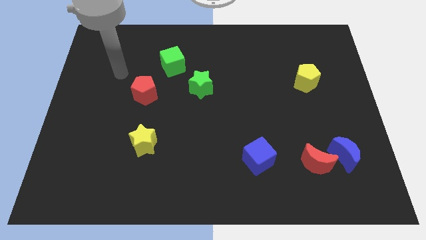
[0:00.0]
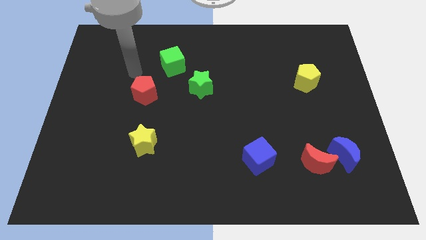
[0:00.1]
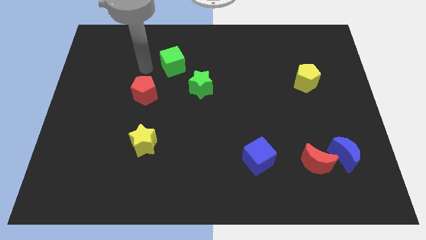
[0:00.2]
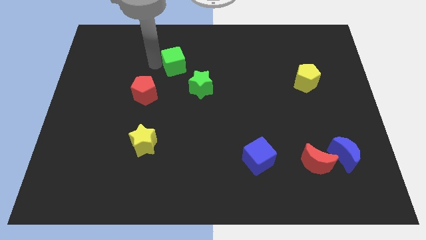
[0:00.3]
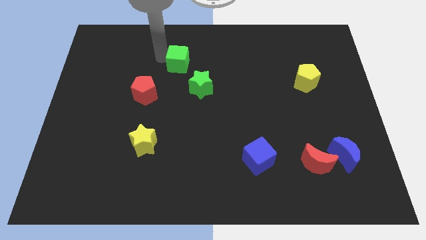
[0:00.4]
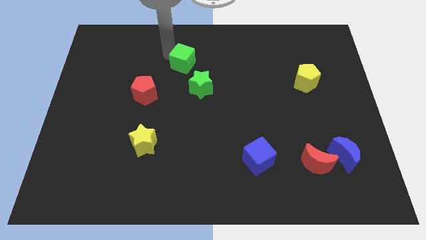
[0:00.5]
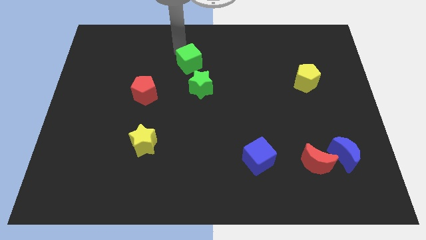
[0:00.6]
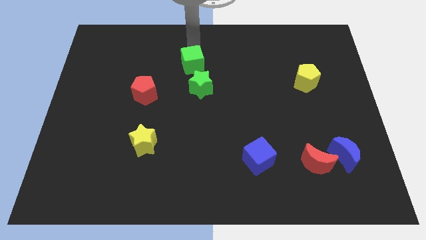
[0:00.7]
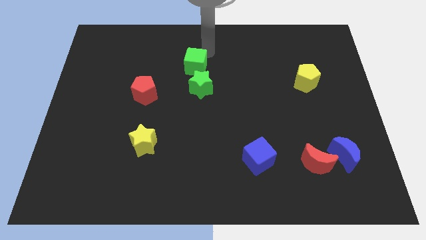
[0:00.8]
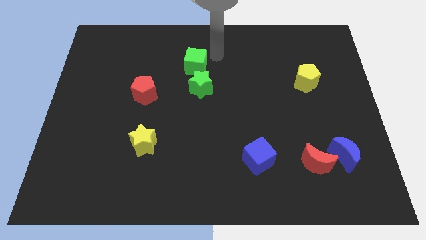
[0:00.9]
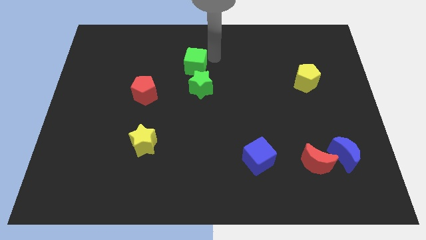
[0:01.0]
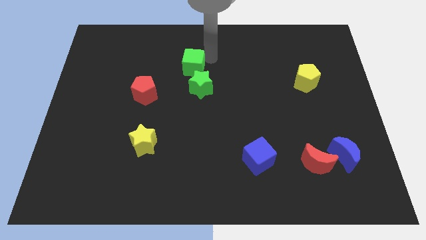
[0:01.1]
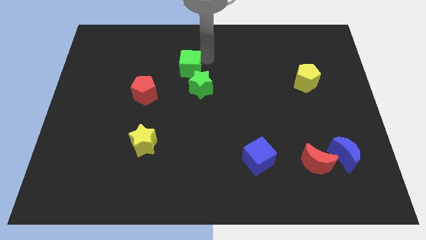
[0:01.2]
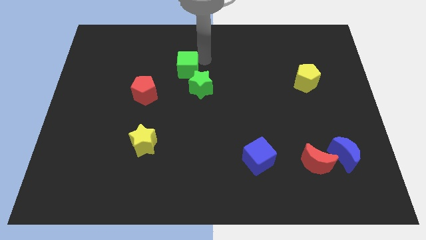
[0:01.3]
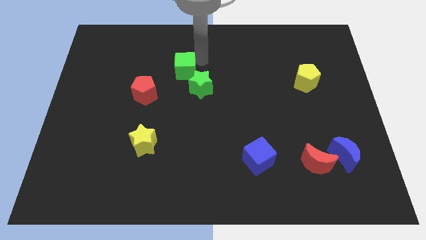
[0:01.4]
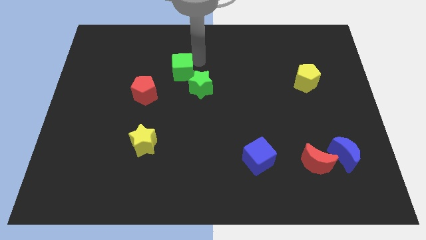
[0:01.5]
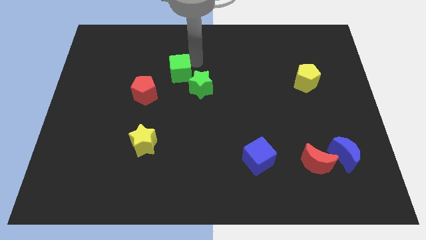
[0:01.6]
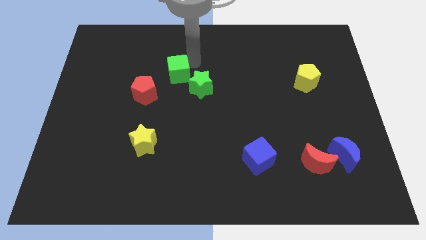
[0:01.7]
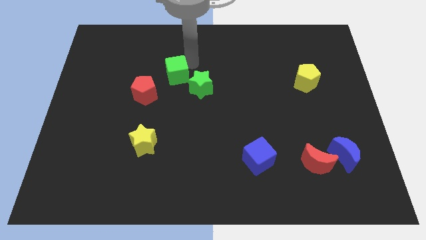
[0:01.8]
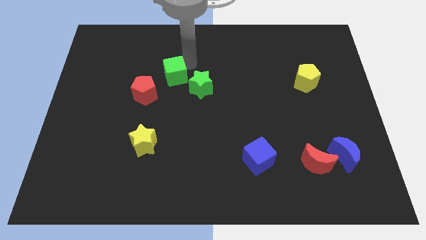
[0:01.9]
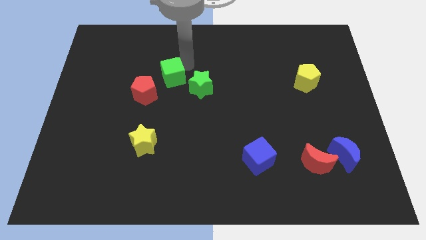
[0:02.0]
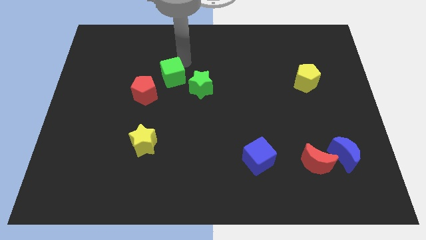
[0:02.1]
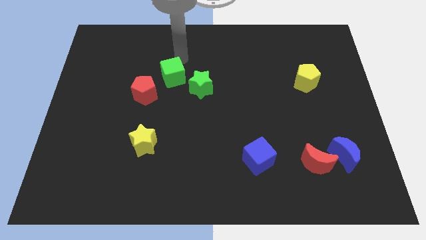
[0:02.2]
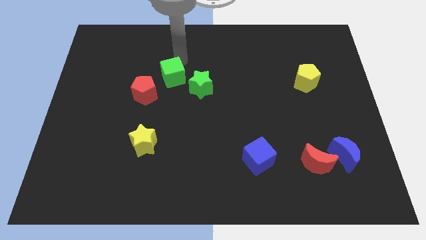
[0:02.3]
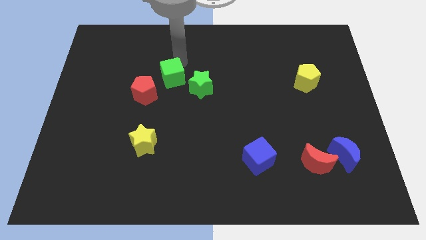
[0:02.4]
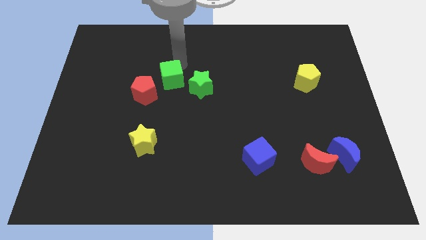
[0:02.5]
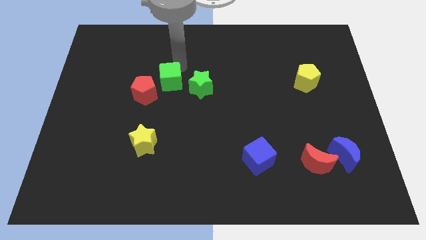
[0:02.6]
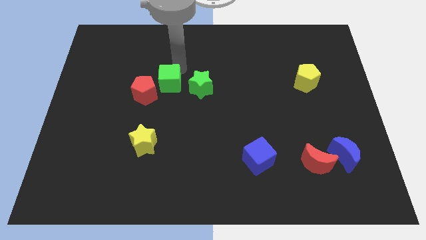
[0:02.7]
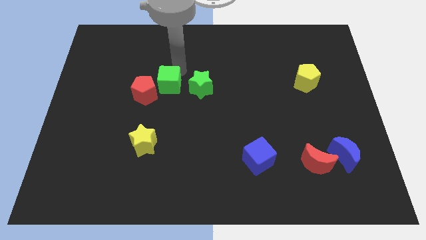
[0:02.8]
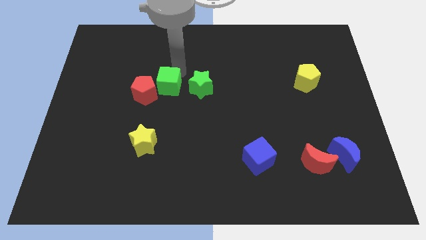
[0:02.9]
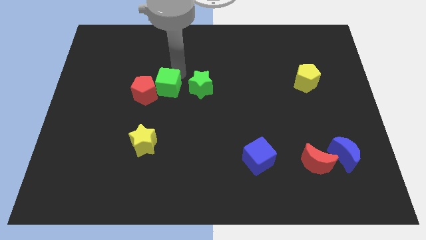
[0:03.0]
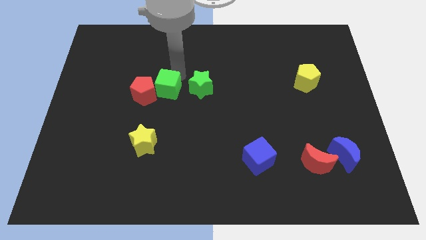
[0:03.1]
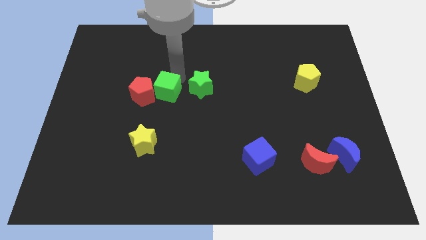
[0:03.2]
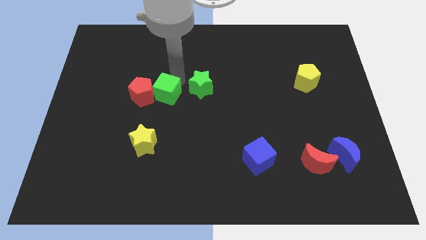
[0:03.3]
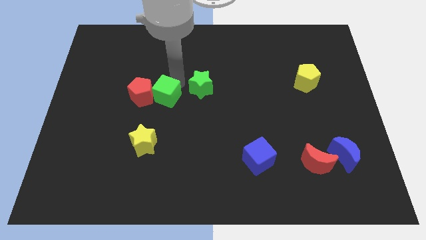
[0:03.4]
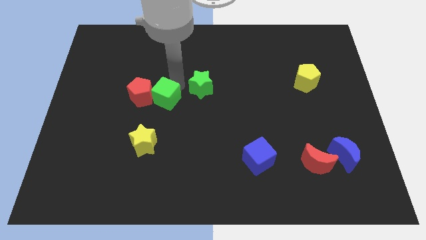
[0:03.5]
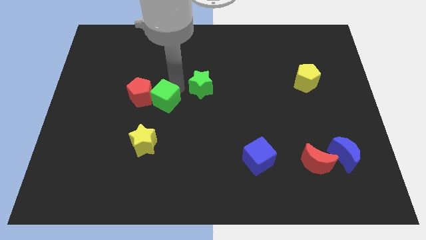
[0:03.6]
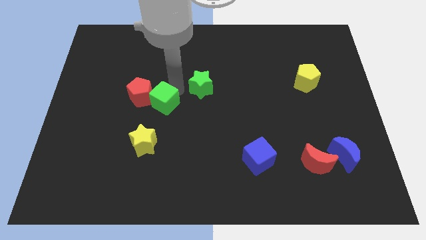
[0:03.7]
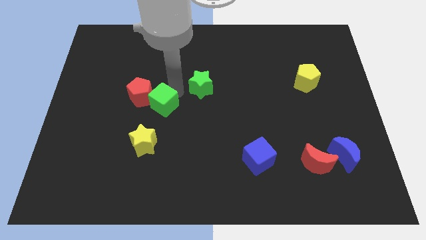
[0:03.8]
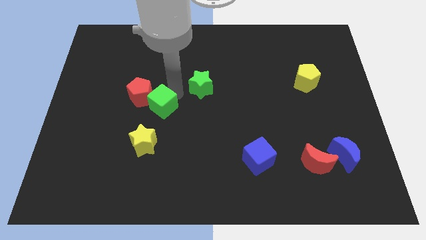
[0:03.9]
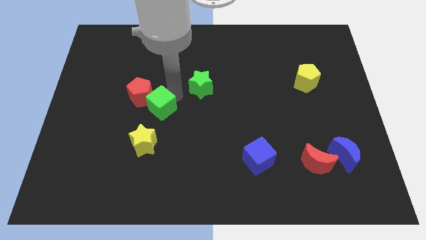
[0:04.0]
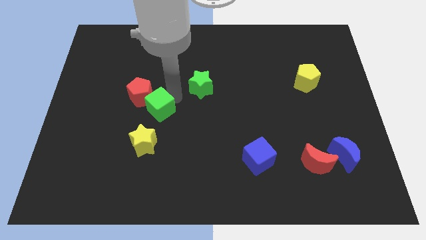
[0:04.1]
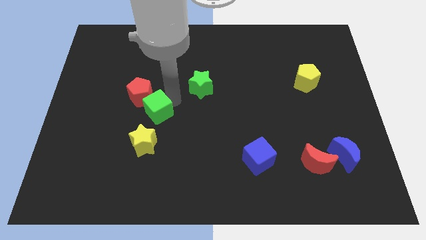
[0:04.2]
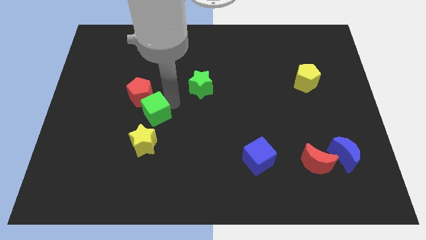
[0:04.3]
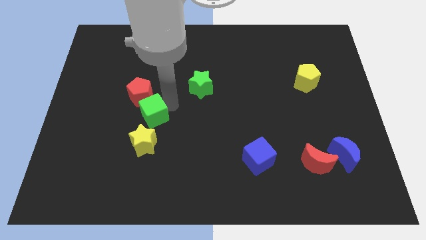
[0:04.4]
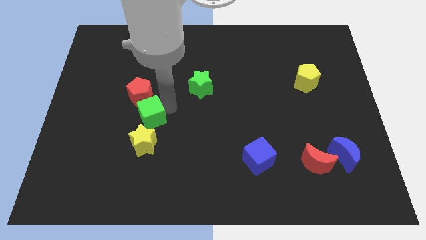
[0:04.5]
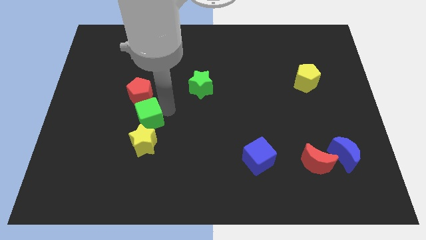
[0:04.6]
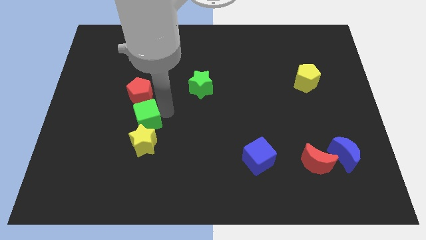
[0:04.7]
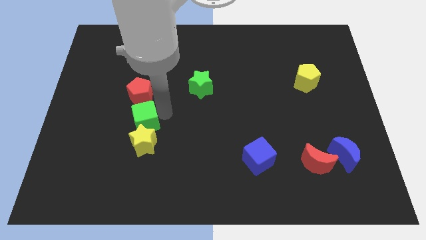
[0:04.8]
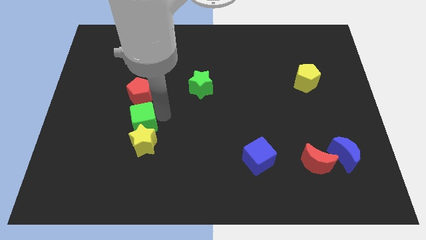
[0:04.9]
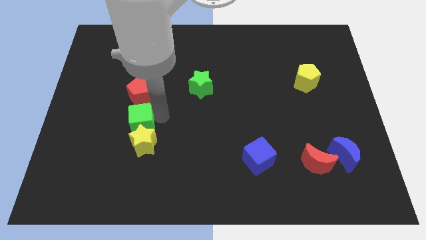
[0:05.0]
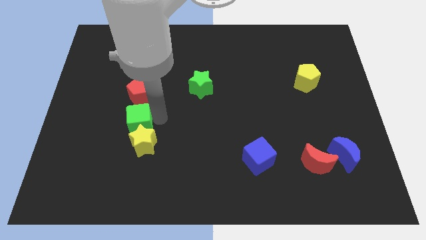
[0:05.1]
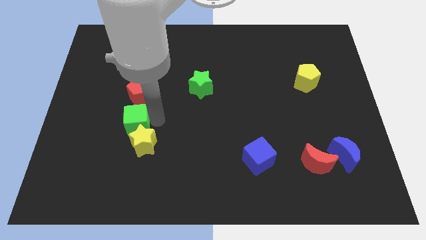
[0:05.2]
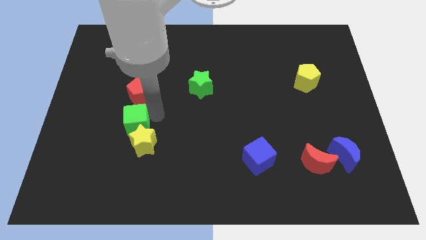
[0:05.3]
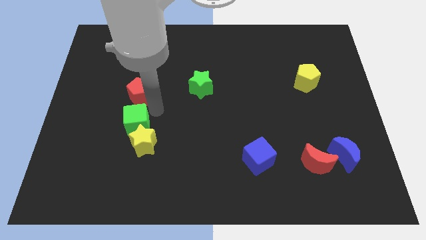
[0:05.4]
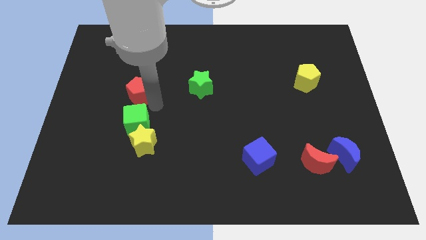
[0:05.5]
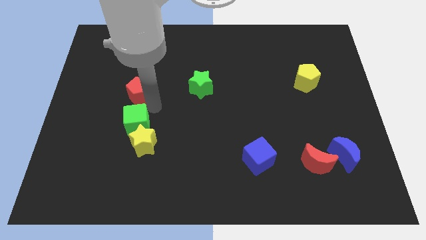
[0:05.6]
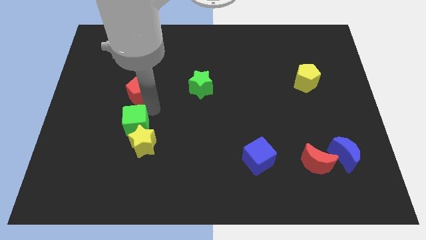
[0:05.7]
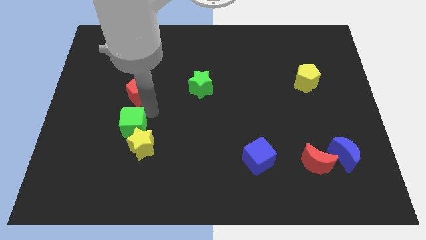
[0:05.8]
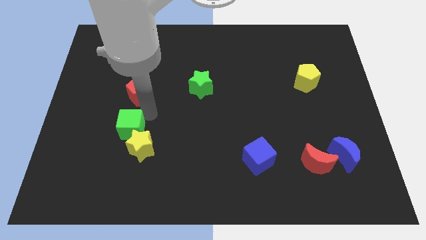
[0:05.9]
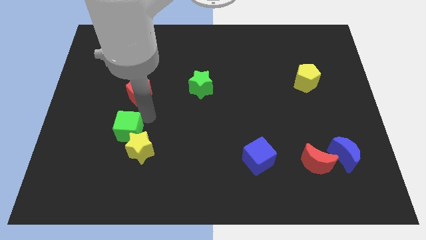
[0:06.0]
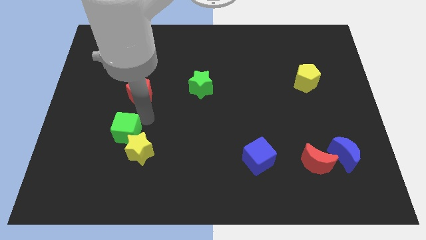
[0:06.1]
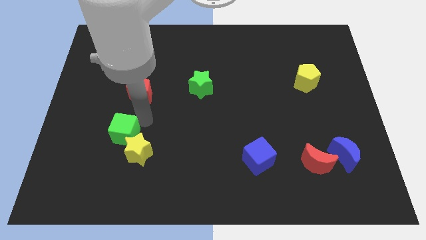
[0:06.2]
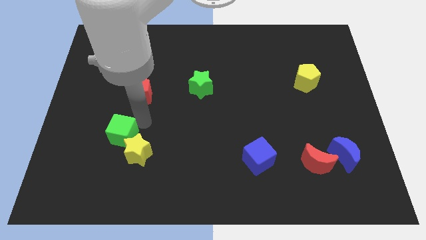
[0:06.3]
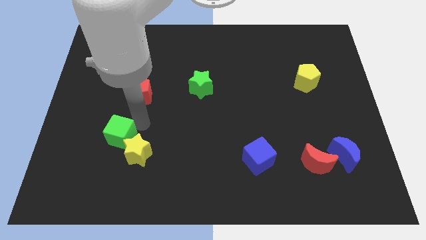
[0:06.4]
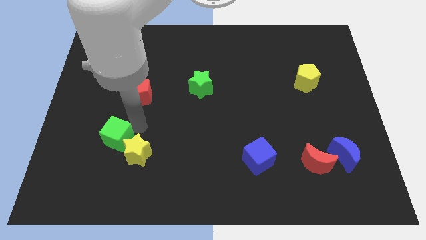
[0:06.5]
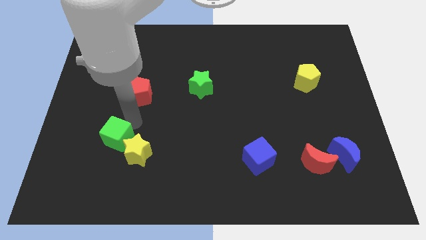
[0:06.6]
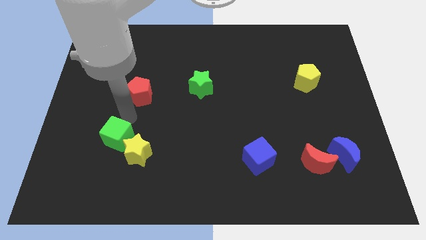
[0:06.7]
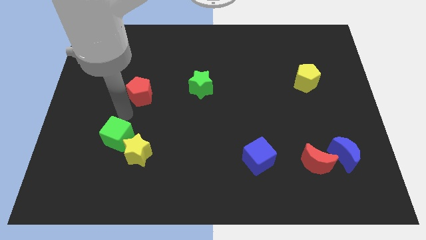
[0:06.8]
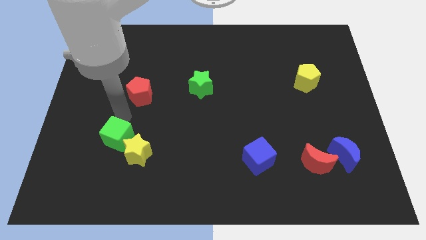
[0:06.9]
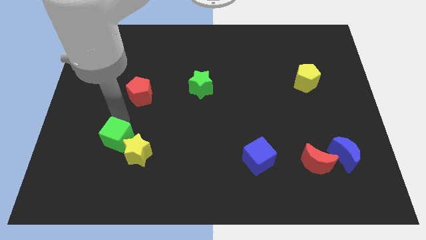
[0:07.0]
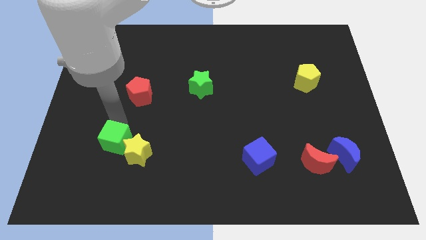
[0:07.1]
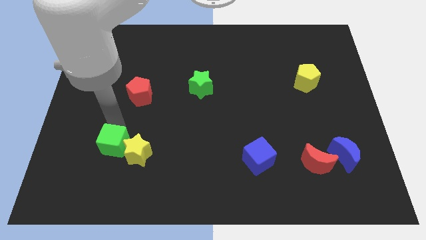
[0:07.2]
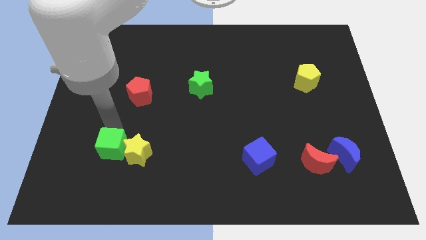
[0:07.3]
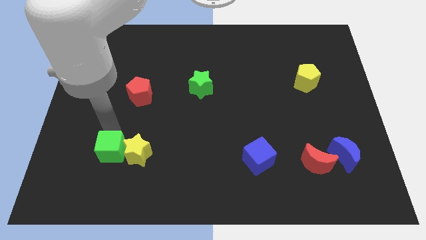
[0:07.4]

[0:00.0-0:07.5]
put the green cube to the bottom left side of the yellow star
